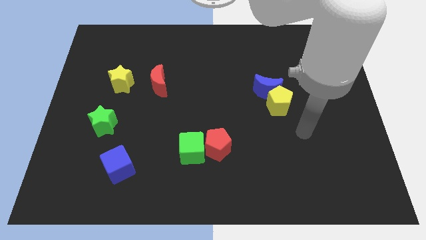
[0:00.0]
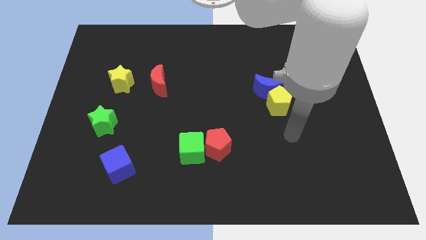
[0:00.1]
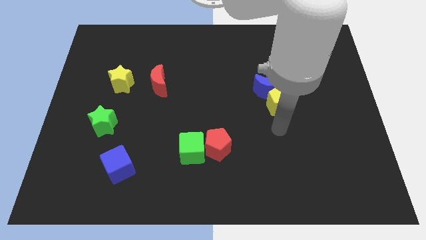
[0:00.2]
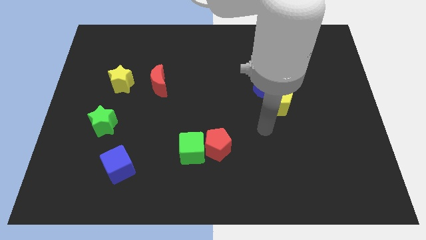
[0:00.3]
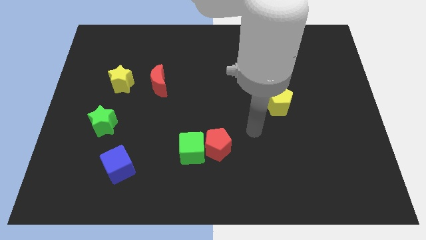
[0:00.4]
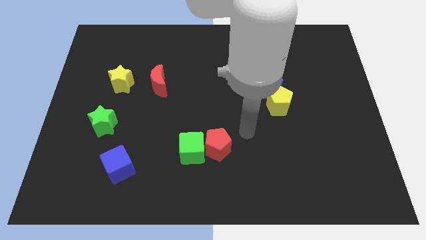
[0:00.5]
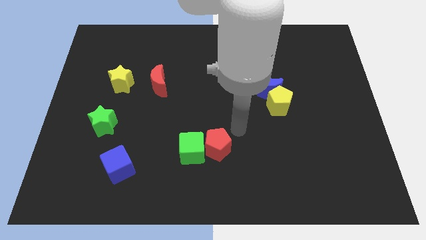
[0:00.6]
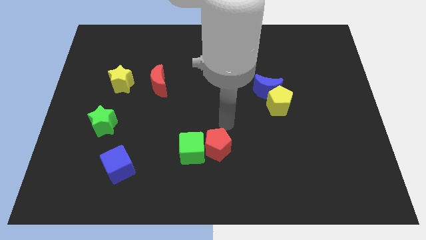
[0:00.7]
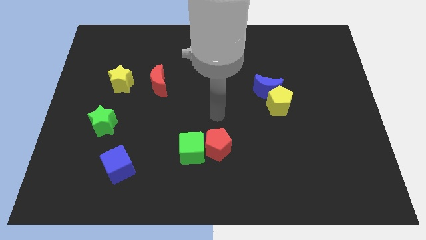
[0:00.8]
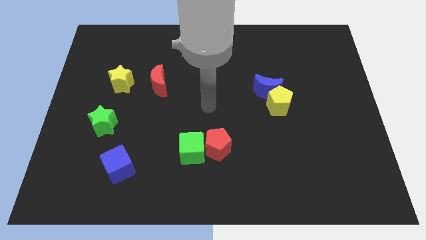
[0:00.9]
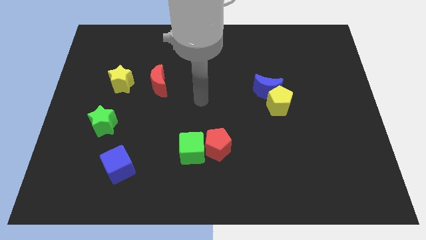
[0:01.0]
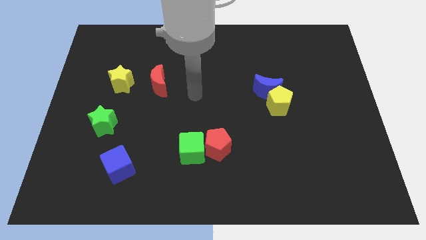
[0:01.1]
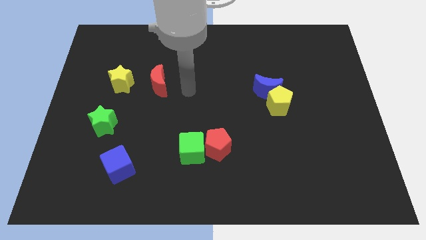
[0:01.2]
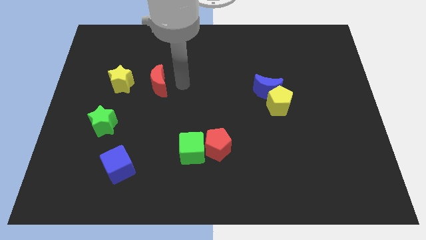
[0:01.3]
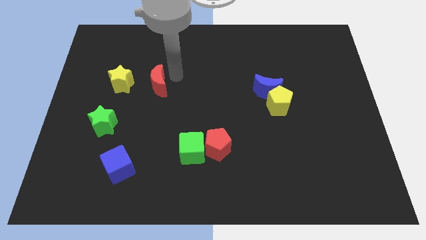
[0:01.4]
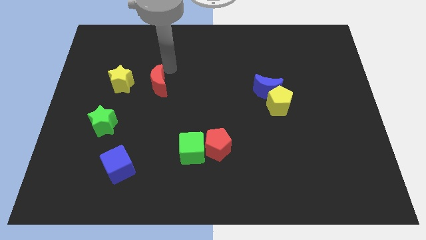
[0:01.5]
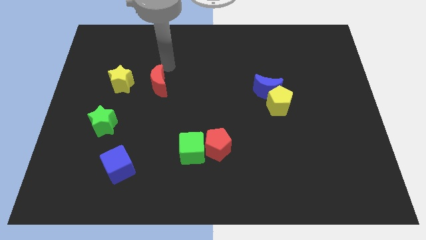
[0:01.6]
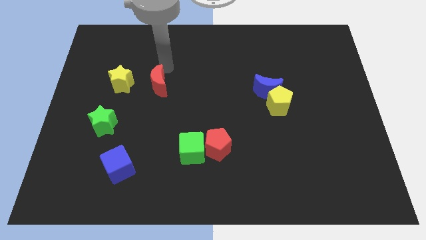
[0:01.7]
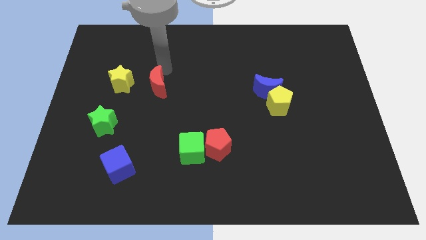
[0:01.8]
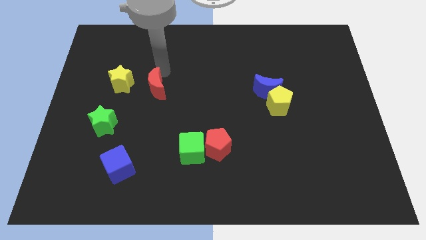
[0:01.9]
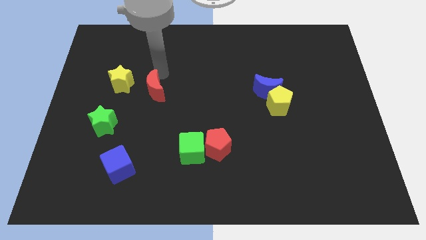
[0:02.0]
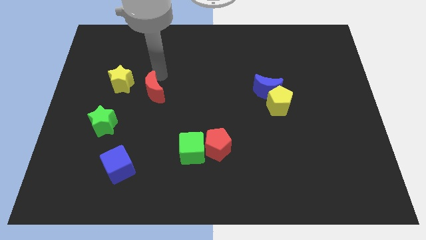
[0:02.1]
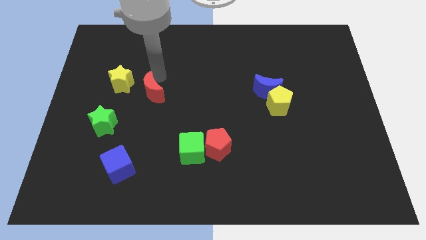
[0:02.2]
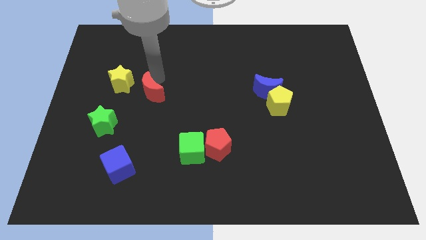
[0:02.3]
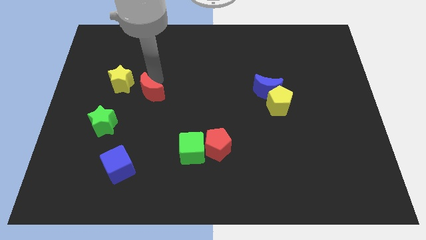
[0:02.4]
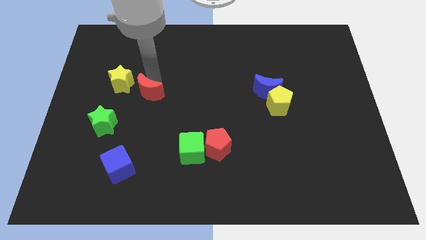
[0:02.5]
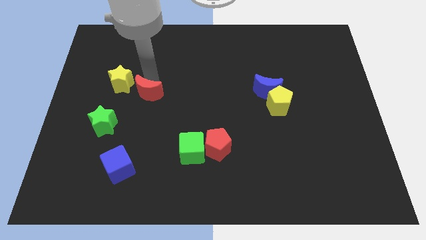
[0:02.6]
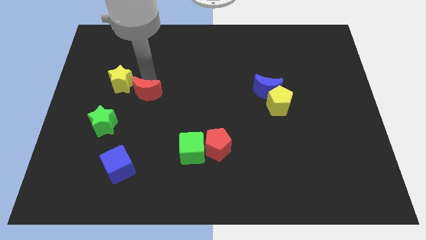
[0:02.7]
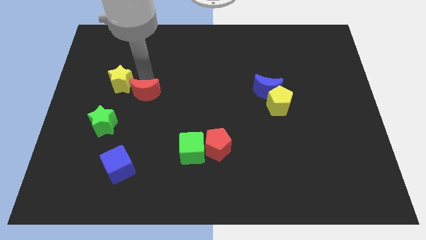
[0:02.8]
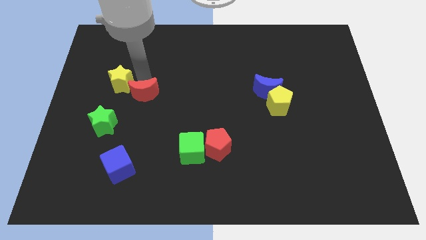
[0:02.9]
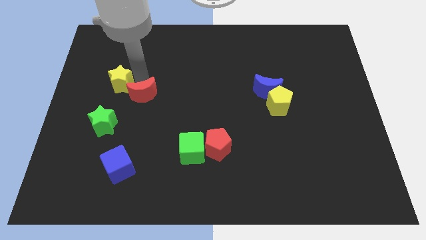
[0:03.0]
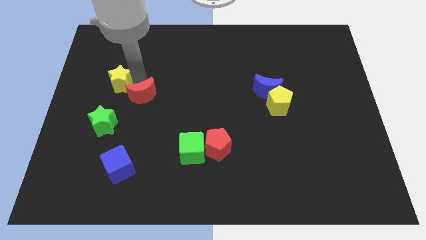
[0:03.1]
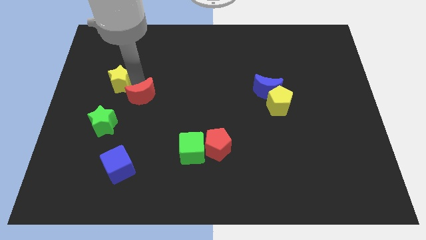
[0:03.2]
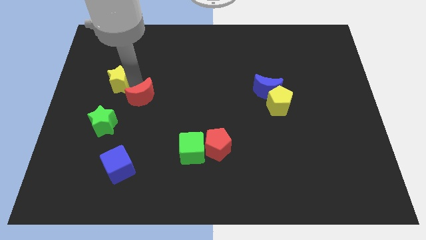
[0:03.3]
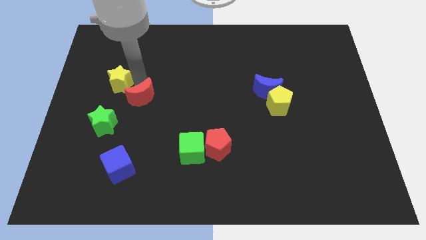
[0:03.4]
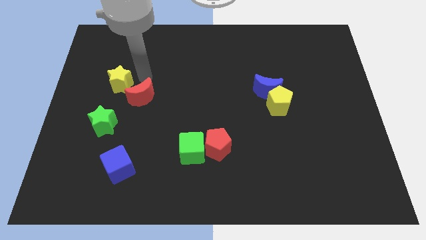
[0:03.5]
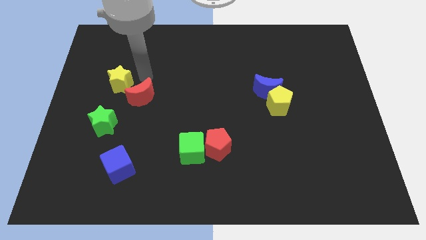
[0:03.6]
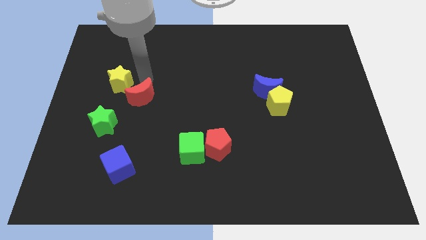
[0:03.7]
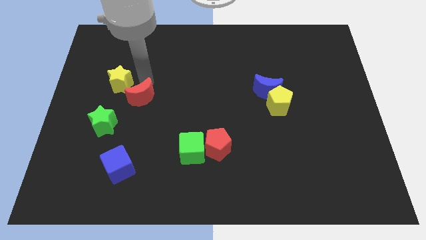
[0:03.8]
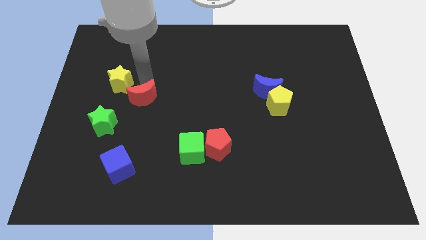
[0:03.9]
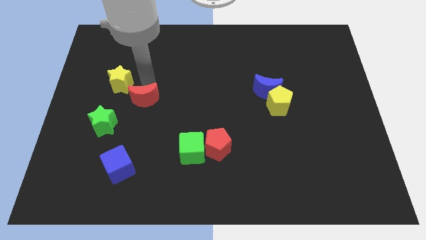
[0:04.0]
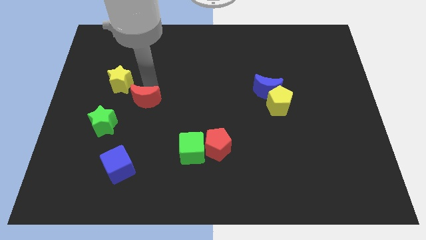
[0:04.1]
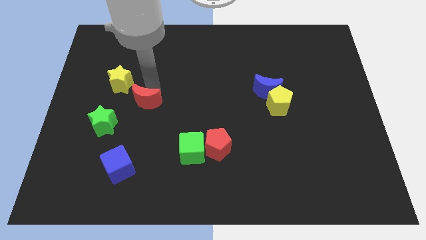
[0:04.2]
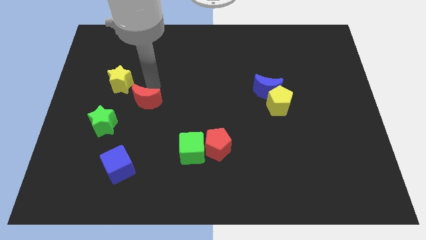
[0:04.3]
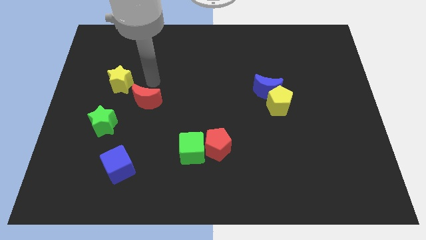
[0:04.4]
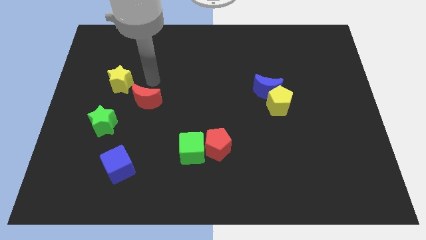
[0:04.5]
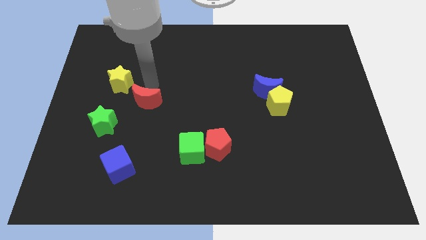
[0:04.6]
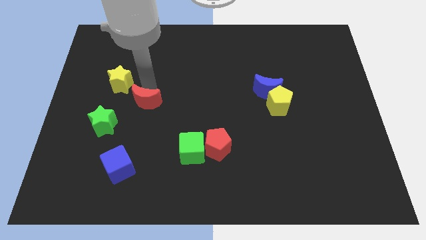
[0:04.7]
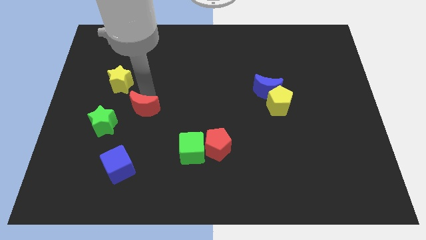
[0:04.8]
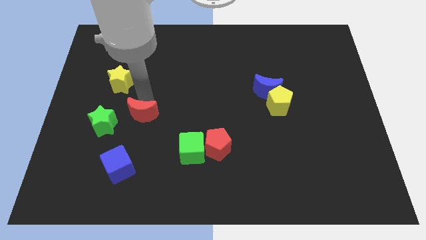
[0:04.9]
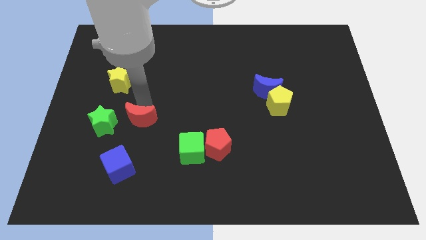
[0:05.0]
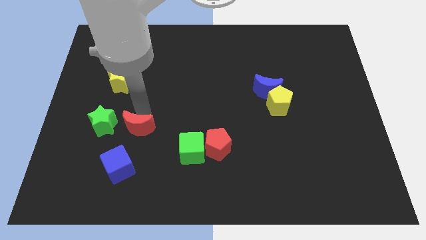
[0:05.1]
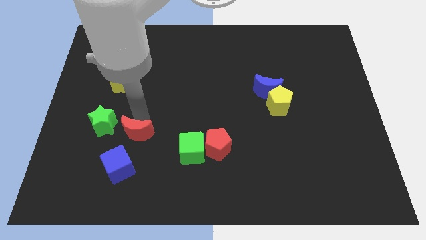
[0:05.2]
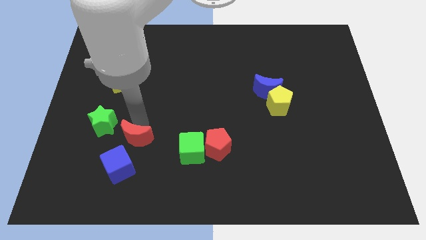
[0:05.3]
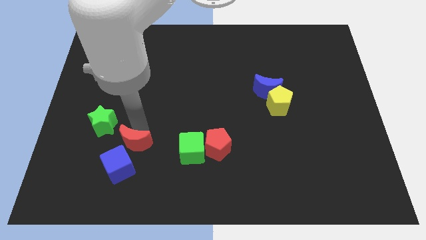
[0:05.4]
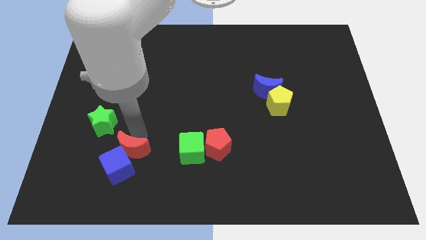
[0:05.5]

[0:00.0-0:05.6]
put the red moon towards the blue cube

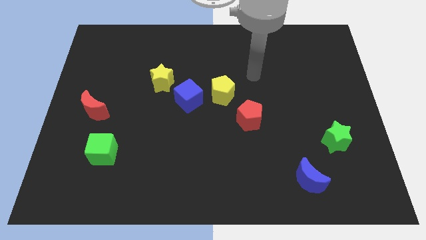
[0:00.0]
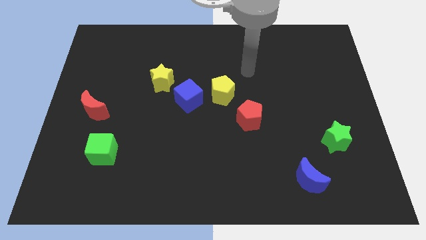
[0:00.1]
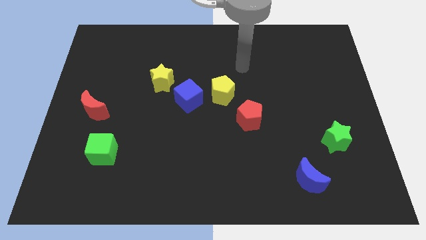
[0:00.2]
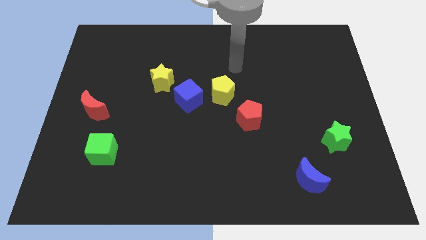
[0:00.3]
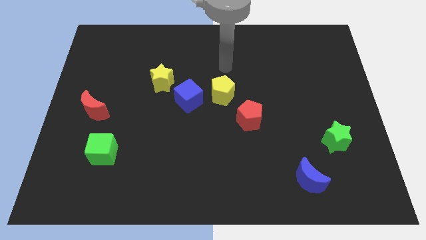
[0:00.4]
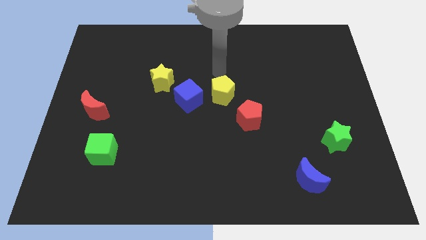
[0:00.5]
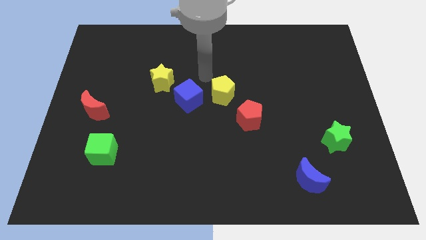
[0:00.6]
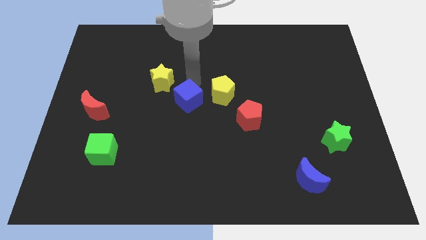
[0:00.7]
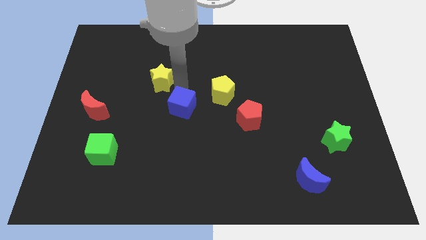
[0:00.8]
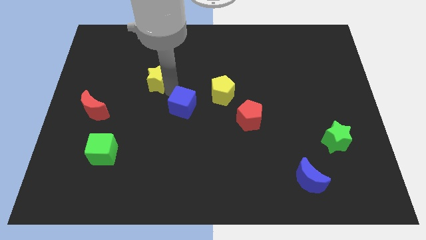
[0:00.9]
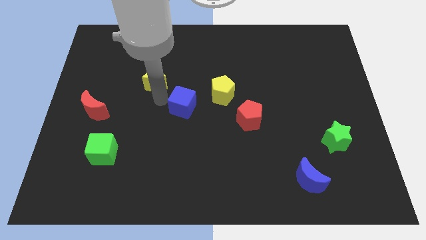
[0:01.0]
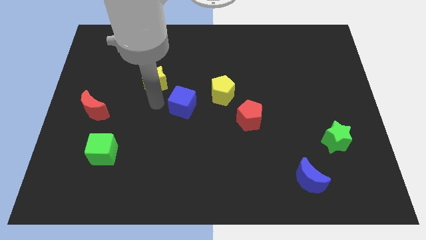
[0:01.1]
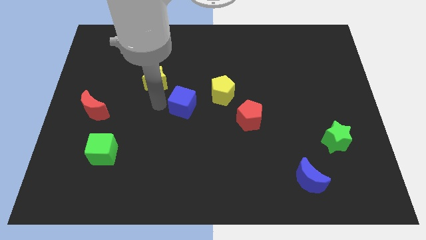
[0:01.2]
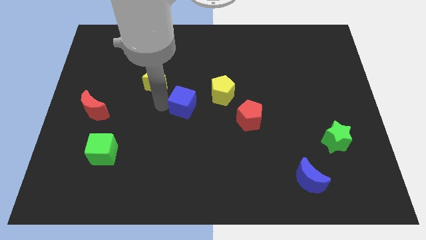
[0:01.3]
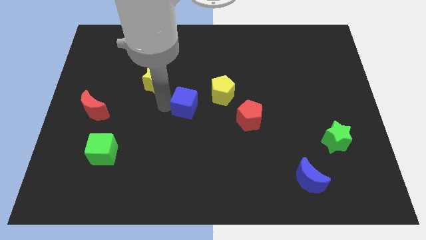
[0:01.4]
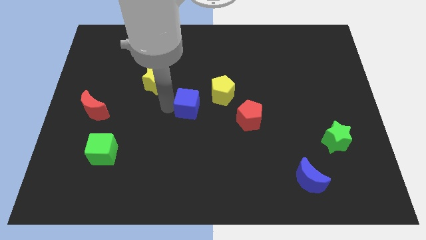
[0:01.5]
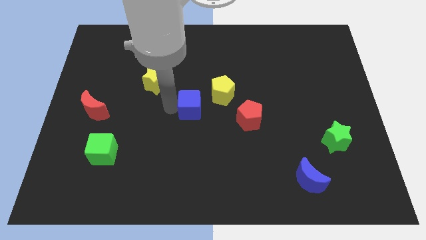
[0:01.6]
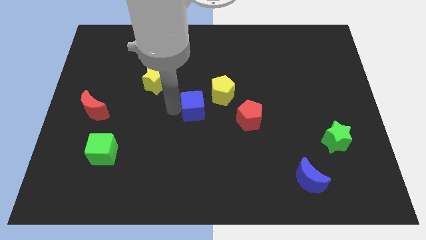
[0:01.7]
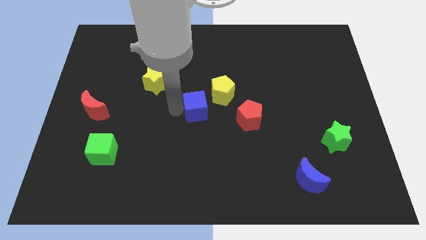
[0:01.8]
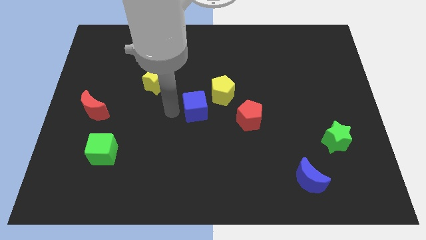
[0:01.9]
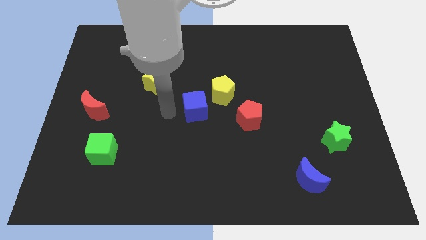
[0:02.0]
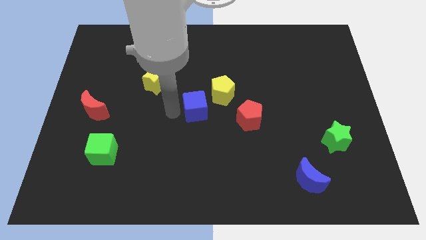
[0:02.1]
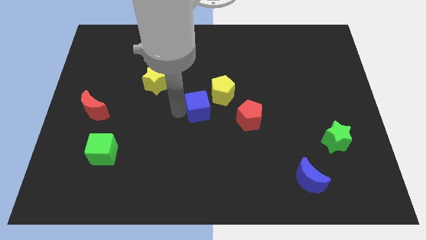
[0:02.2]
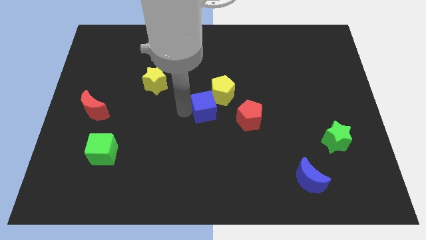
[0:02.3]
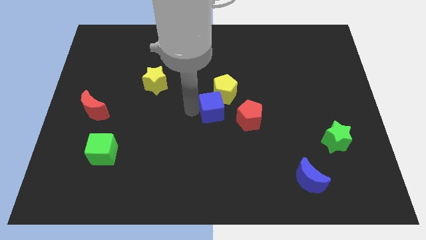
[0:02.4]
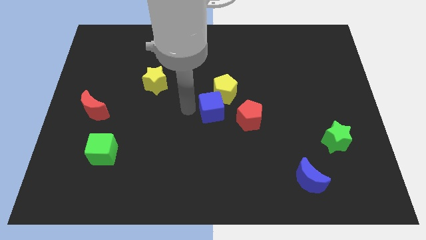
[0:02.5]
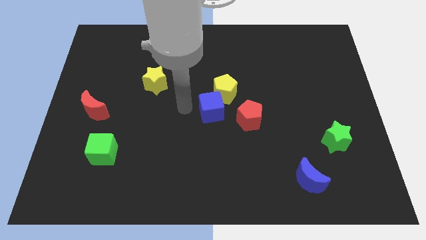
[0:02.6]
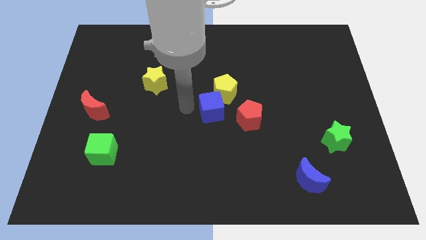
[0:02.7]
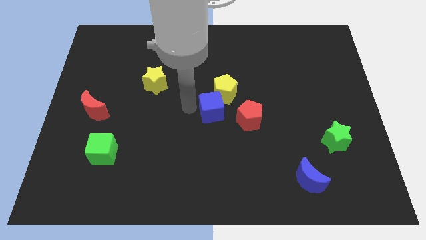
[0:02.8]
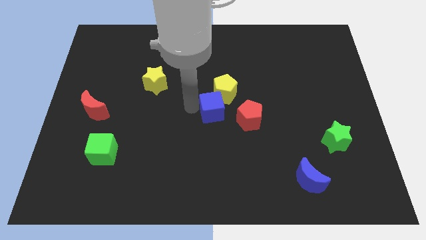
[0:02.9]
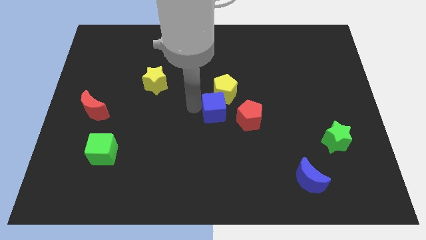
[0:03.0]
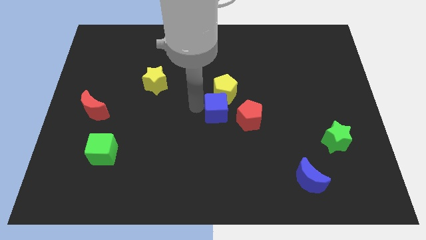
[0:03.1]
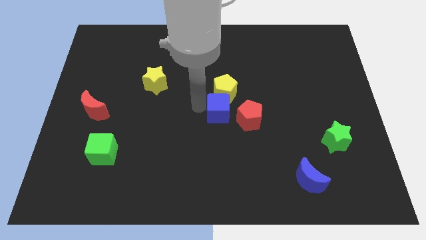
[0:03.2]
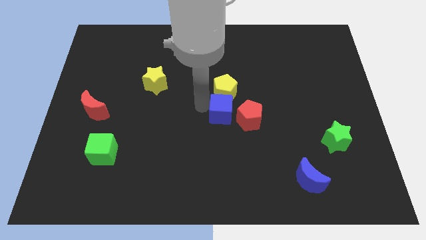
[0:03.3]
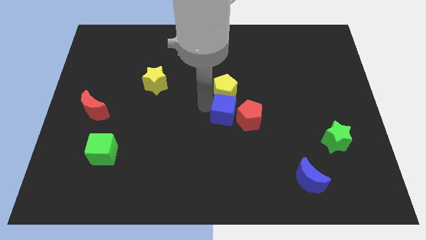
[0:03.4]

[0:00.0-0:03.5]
slide the blue cube towards the red pentagon
